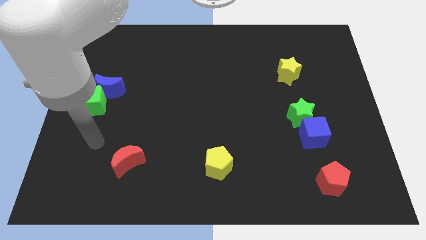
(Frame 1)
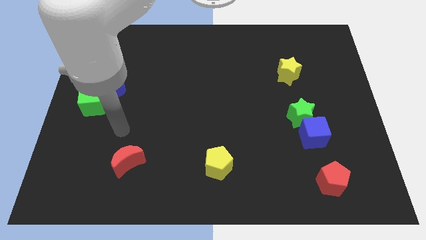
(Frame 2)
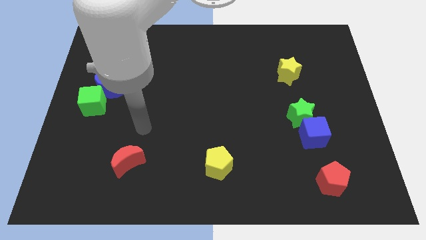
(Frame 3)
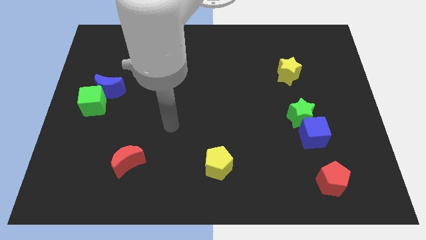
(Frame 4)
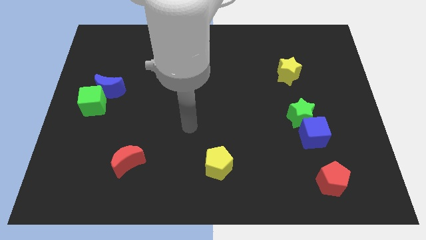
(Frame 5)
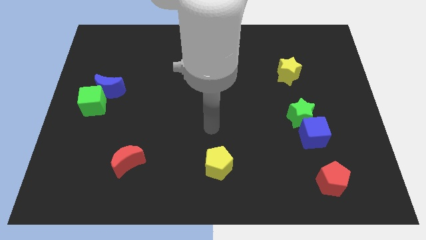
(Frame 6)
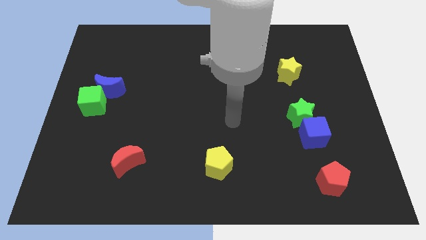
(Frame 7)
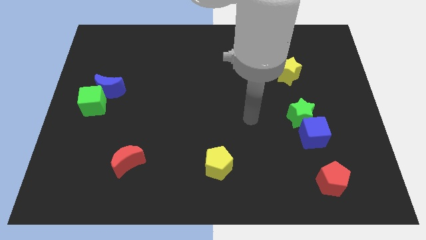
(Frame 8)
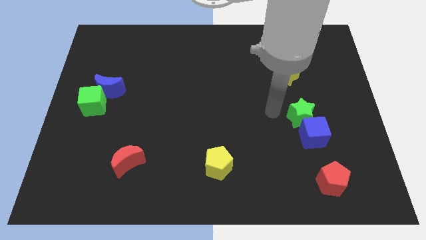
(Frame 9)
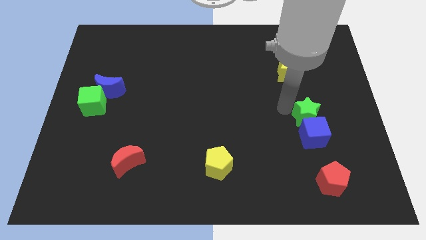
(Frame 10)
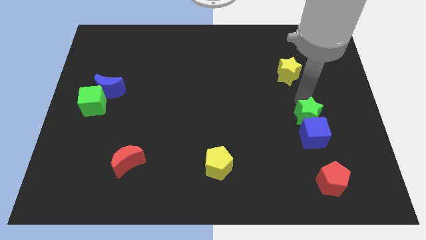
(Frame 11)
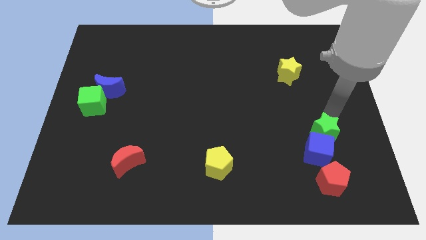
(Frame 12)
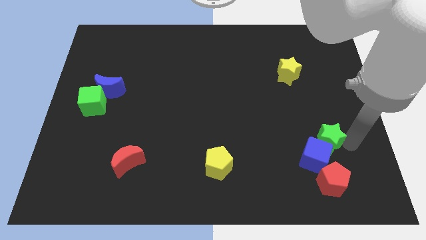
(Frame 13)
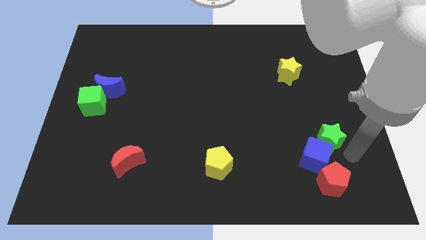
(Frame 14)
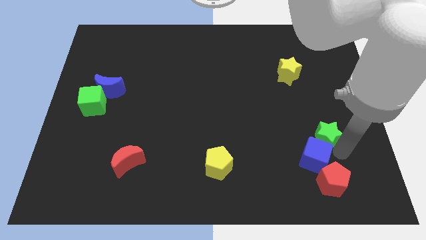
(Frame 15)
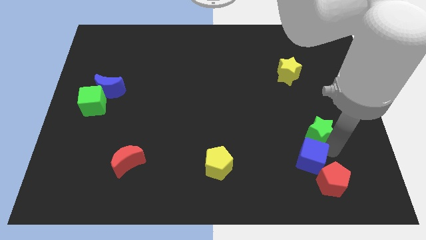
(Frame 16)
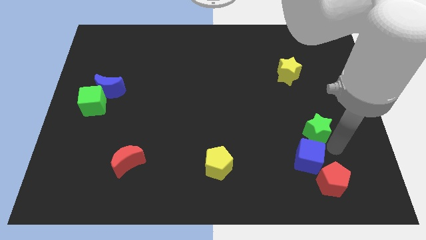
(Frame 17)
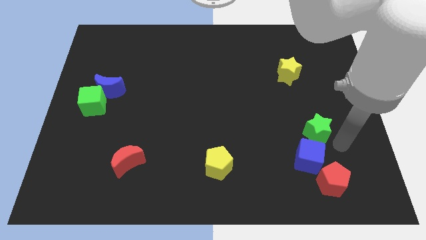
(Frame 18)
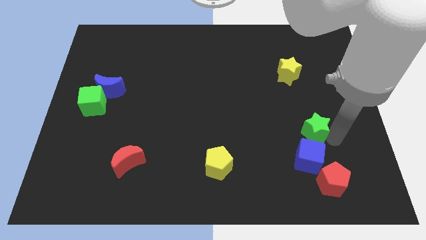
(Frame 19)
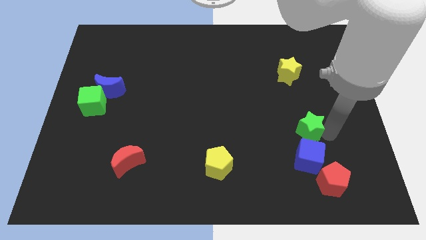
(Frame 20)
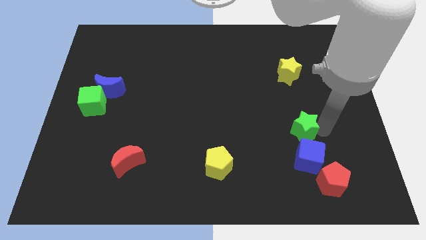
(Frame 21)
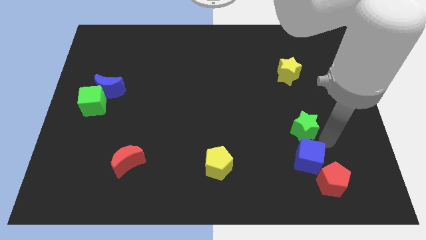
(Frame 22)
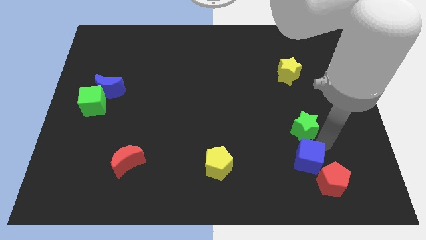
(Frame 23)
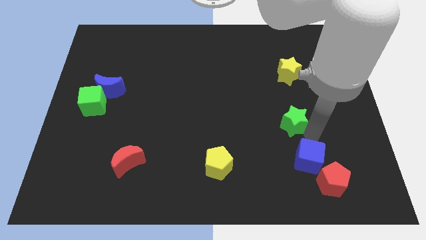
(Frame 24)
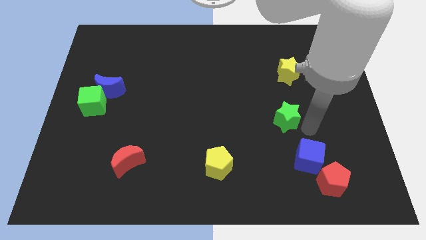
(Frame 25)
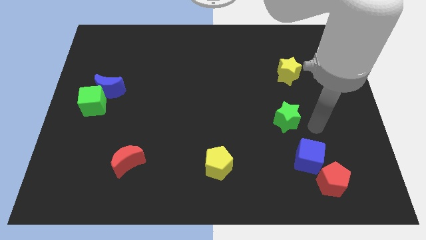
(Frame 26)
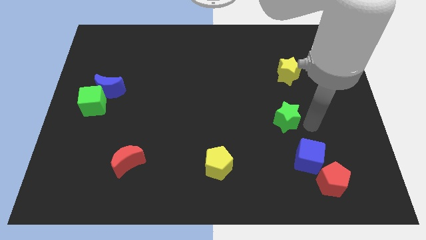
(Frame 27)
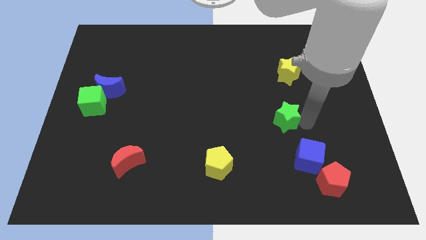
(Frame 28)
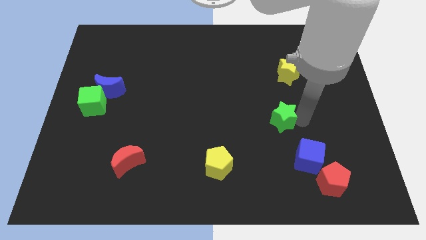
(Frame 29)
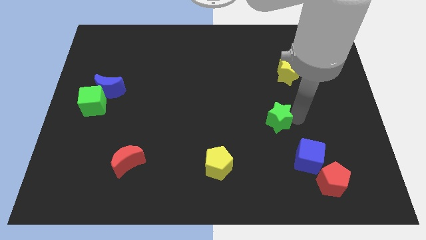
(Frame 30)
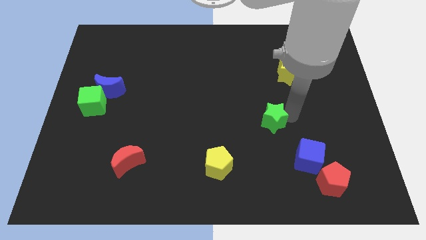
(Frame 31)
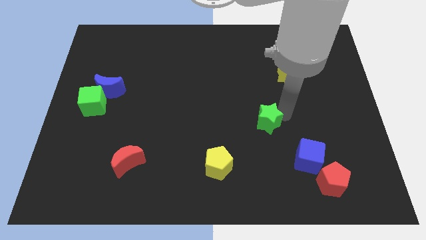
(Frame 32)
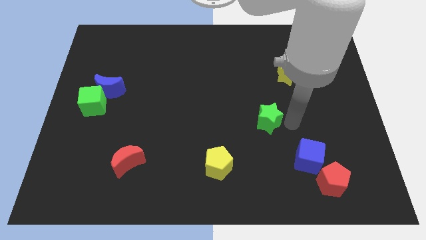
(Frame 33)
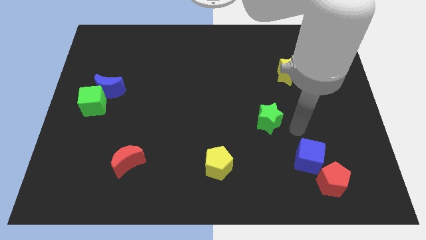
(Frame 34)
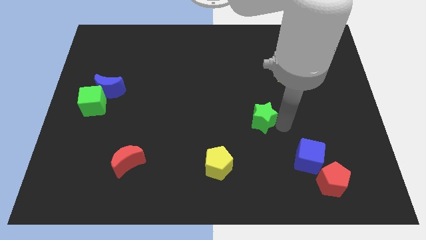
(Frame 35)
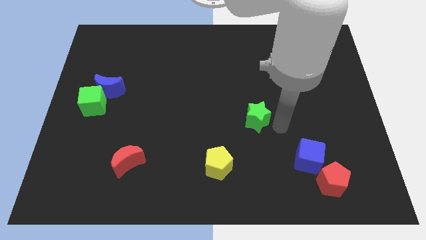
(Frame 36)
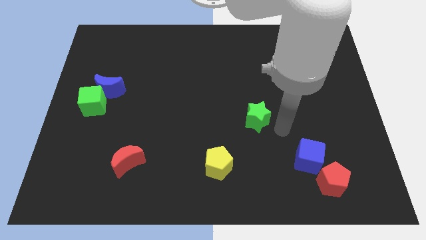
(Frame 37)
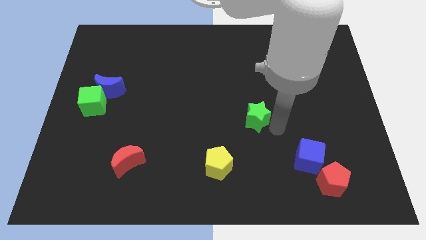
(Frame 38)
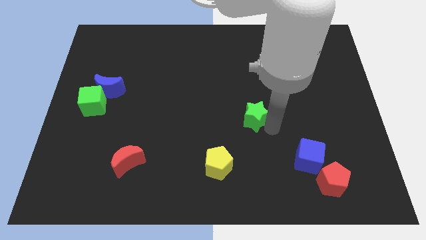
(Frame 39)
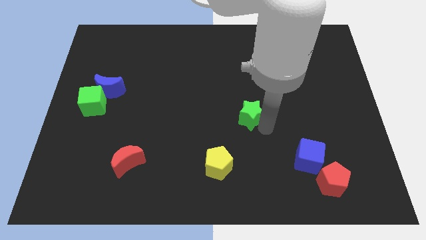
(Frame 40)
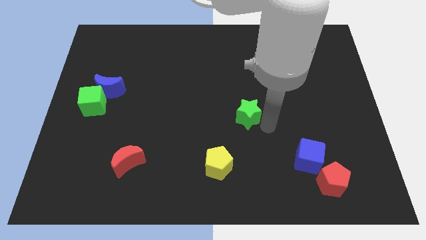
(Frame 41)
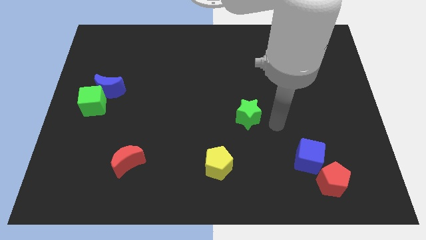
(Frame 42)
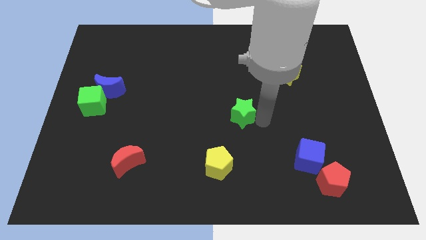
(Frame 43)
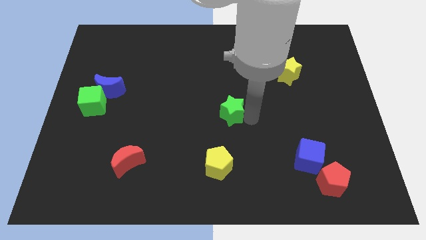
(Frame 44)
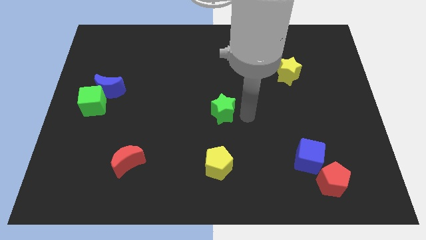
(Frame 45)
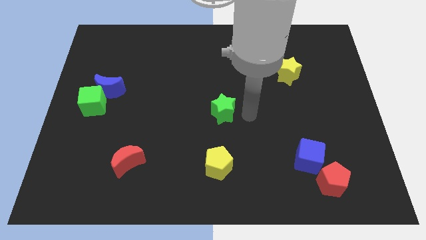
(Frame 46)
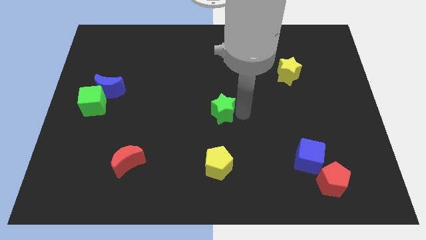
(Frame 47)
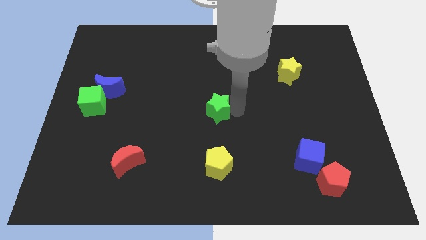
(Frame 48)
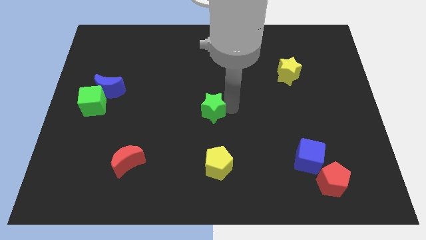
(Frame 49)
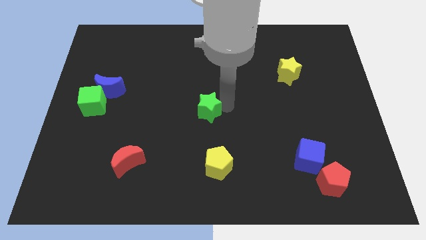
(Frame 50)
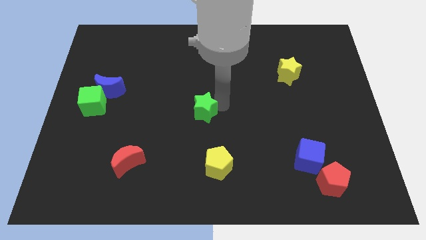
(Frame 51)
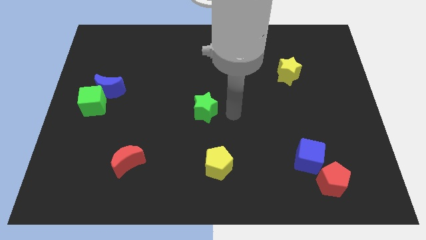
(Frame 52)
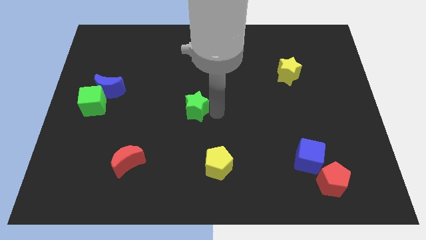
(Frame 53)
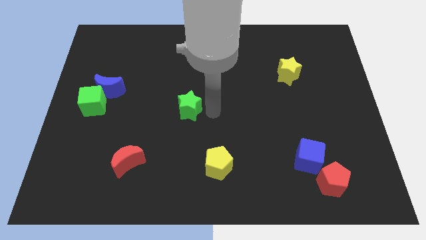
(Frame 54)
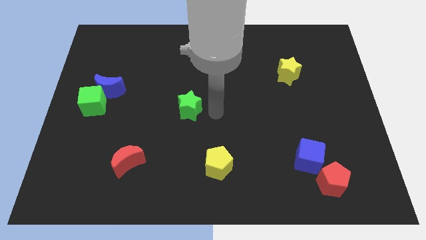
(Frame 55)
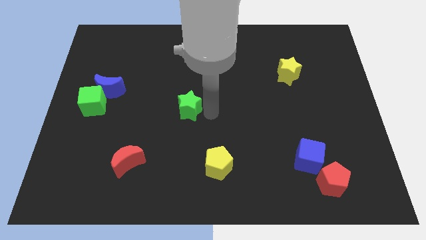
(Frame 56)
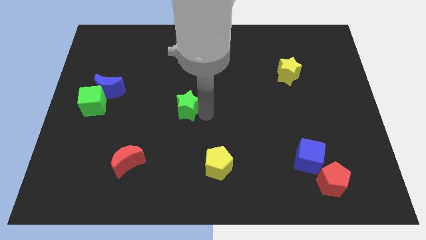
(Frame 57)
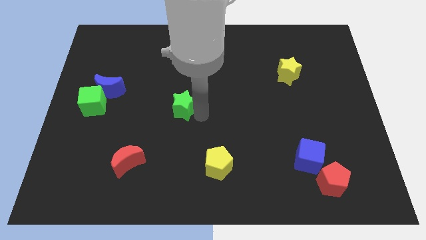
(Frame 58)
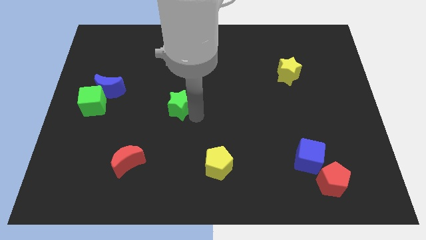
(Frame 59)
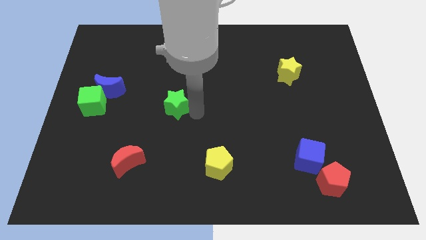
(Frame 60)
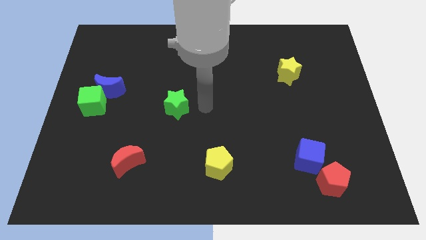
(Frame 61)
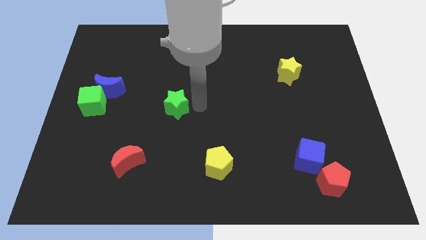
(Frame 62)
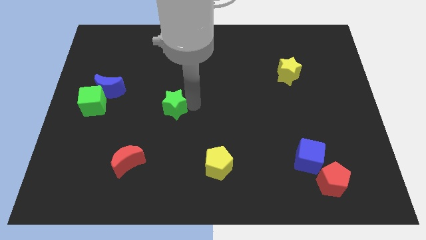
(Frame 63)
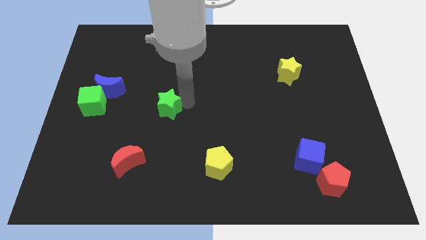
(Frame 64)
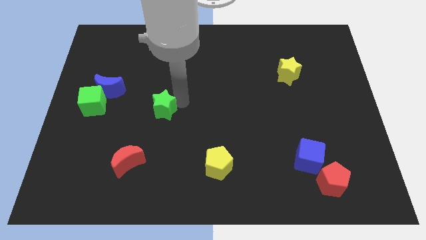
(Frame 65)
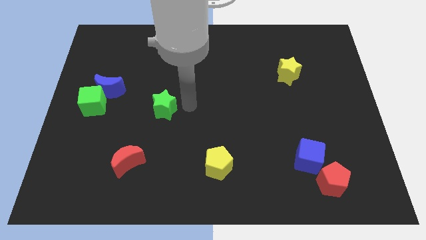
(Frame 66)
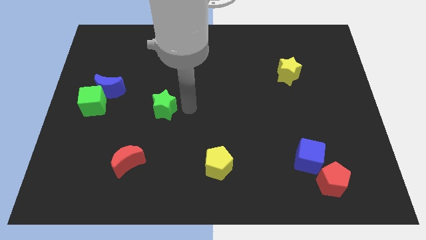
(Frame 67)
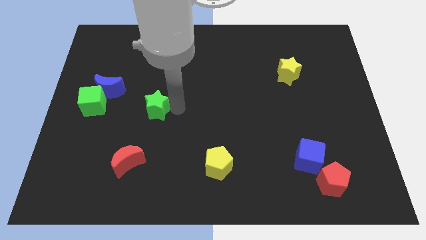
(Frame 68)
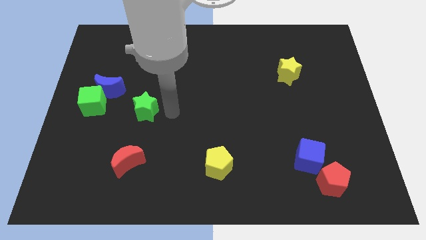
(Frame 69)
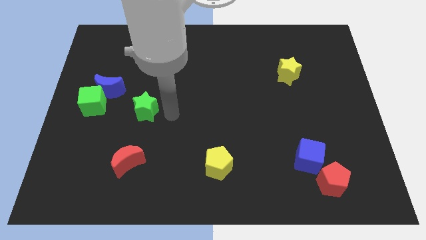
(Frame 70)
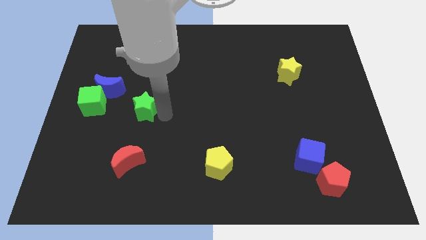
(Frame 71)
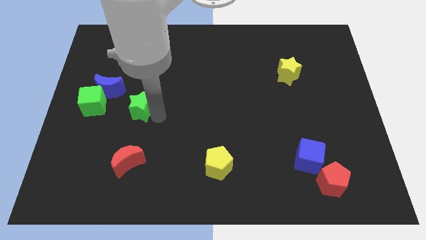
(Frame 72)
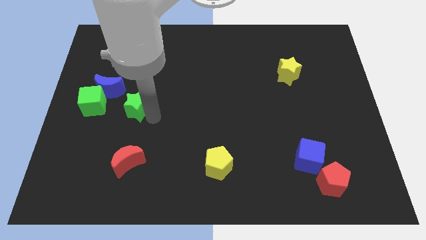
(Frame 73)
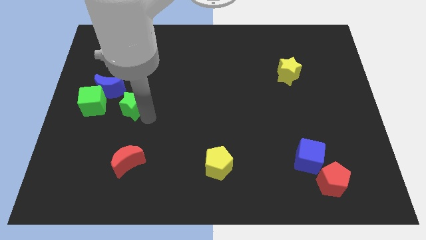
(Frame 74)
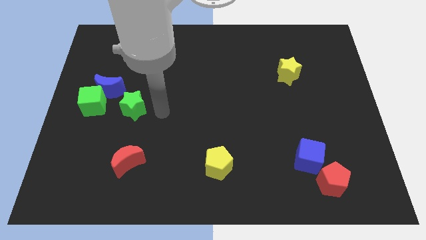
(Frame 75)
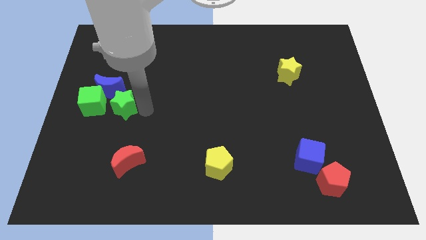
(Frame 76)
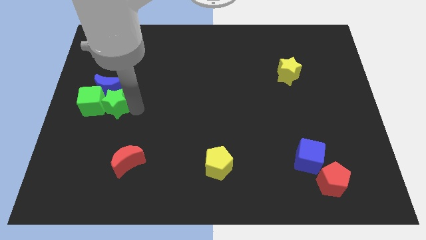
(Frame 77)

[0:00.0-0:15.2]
slide the green star next to the green cube
